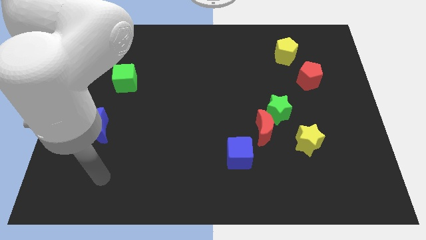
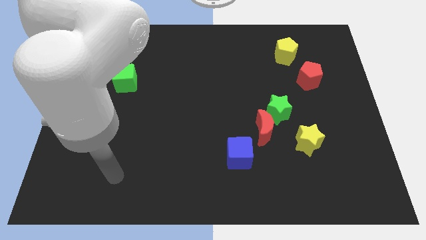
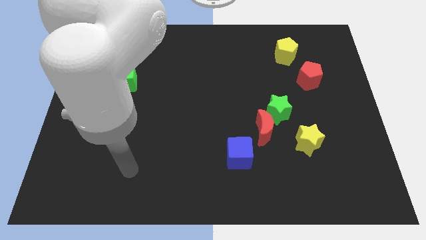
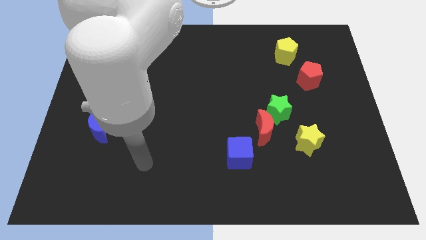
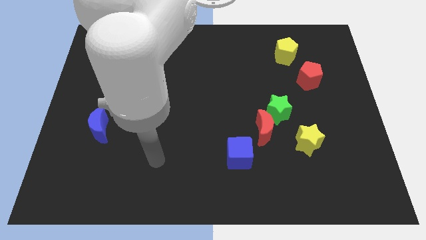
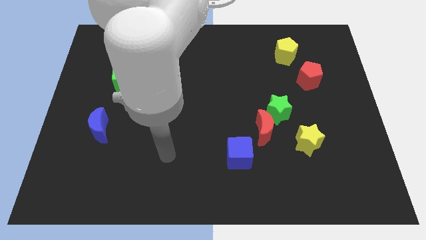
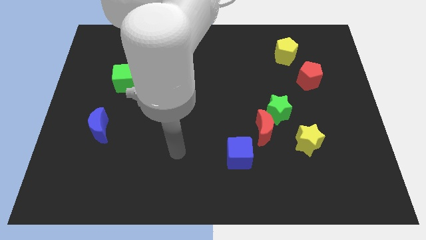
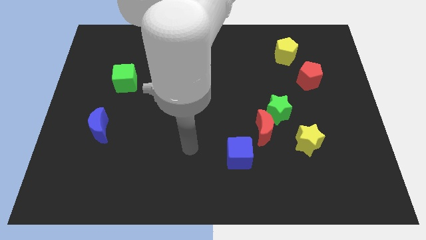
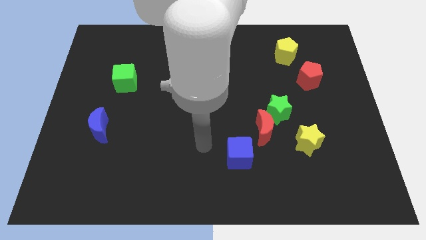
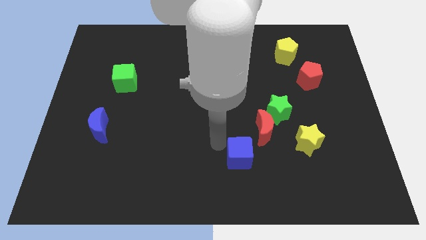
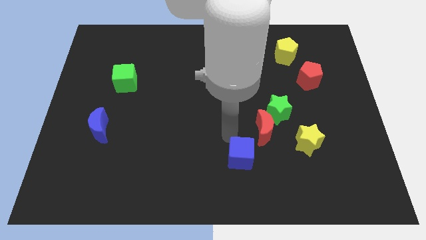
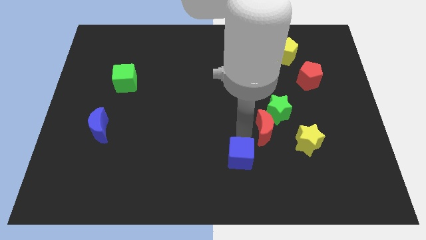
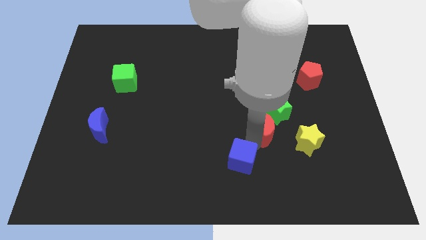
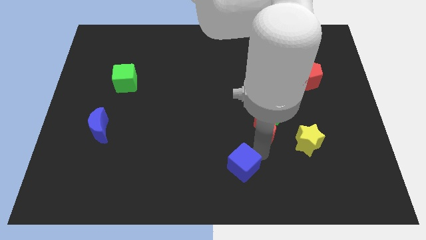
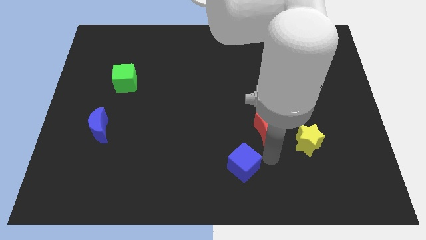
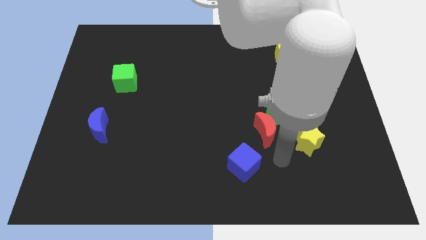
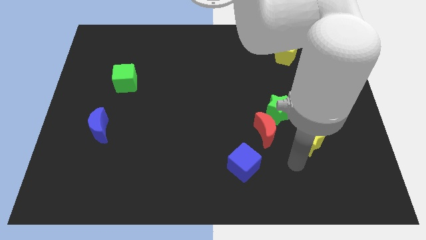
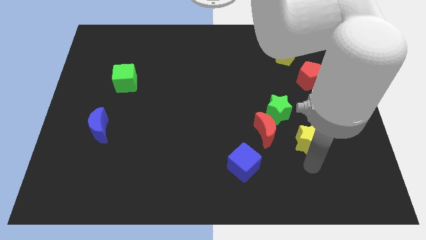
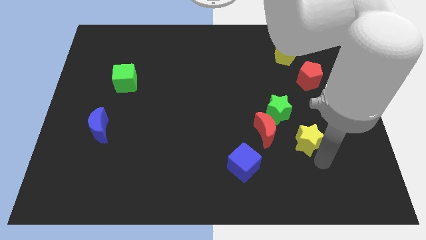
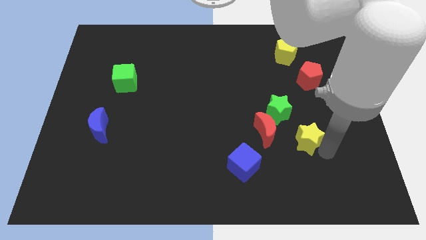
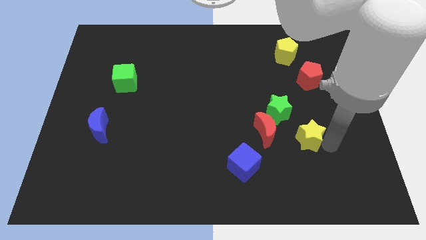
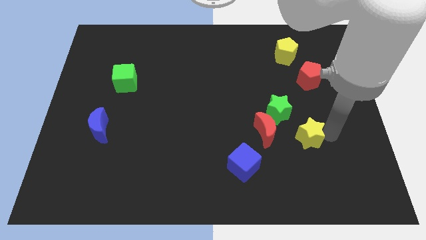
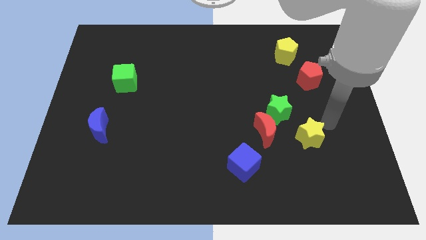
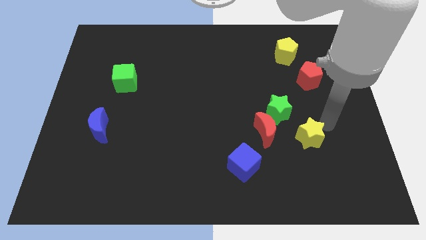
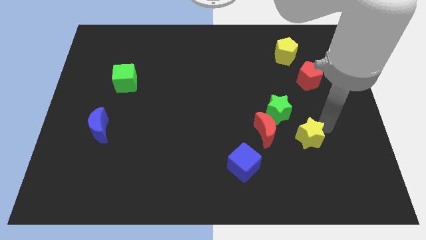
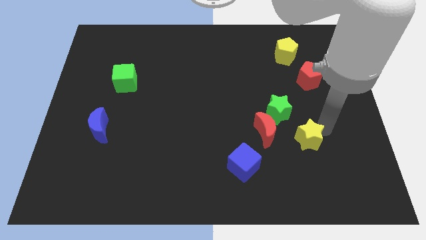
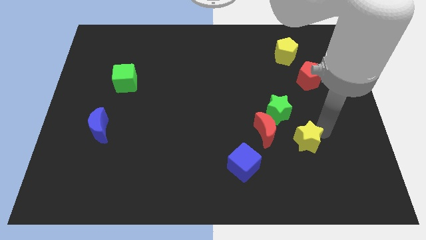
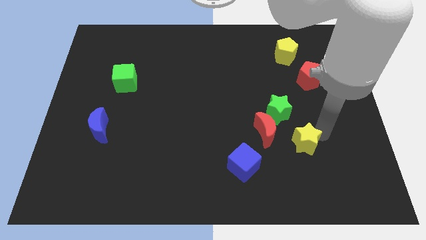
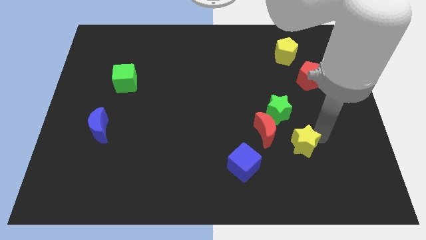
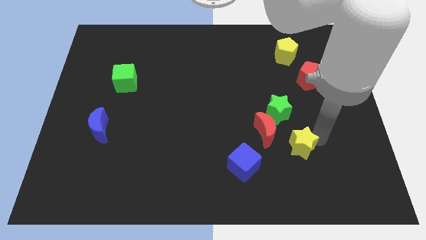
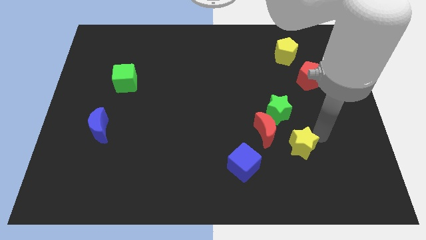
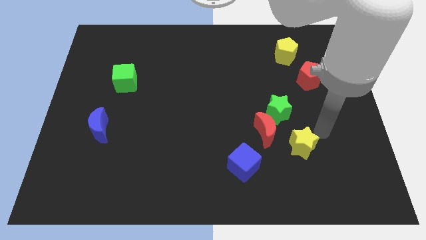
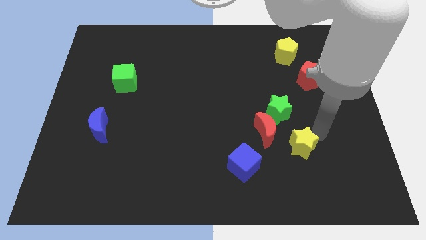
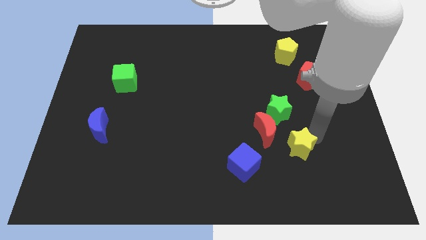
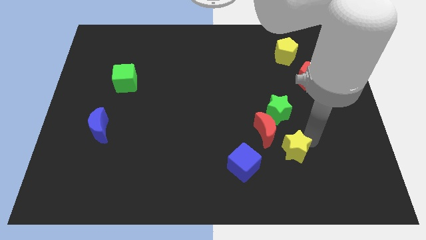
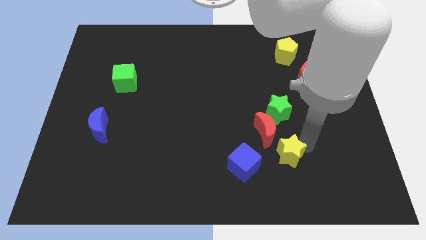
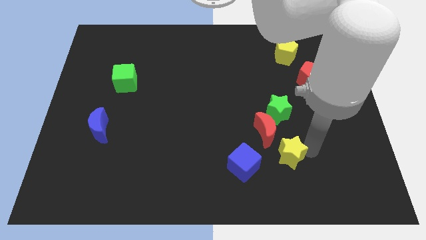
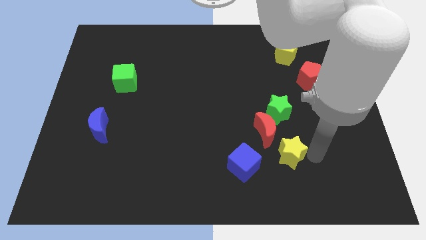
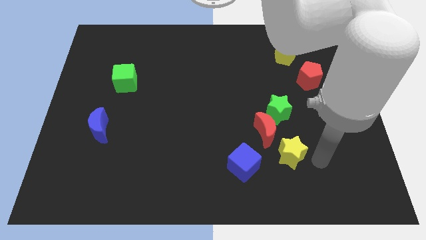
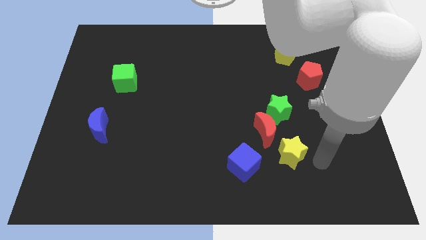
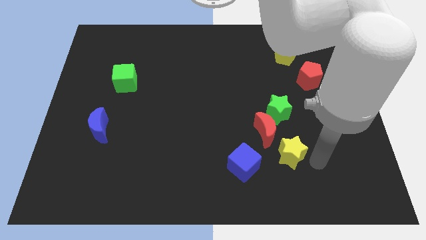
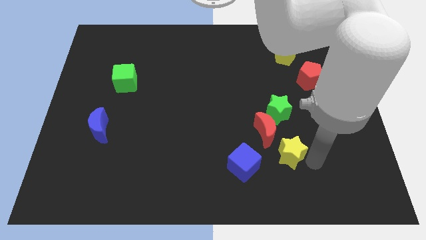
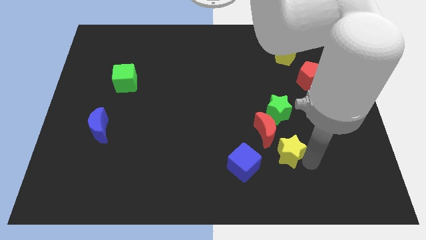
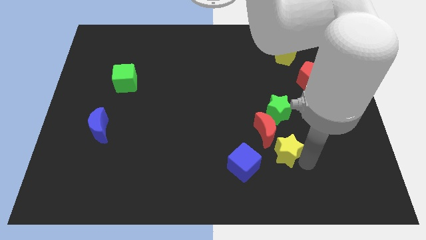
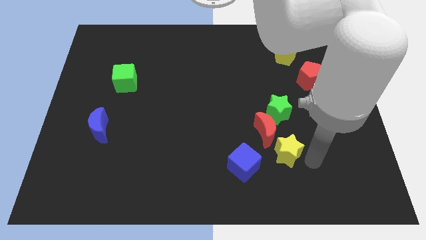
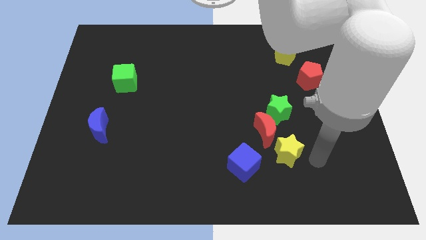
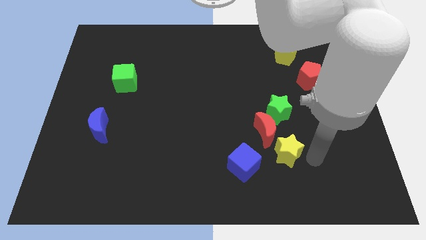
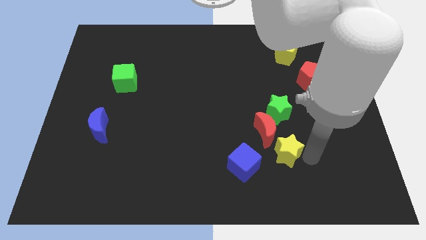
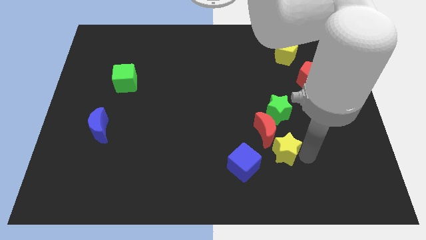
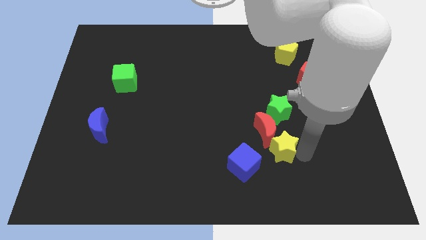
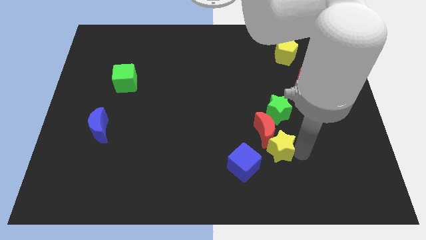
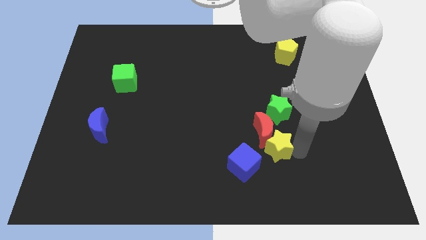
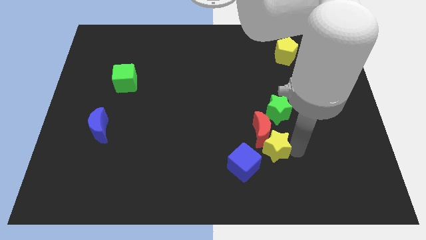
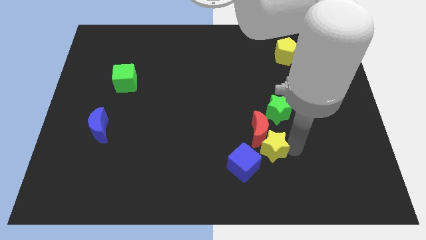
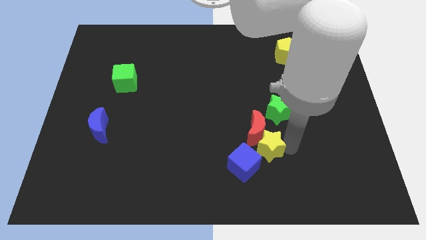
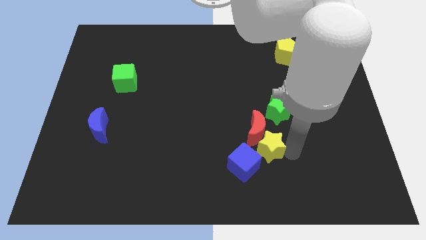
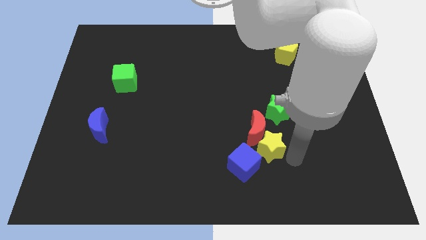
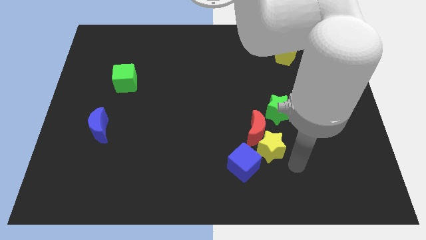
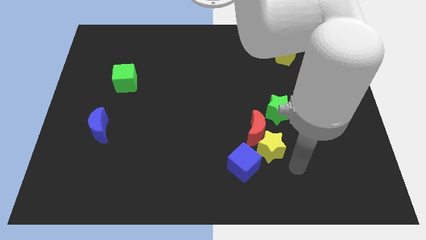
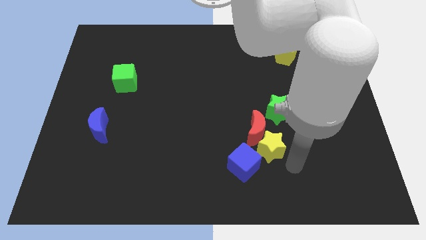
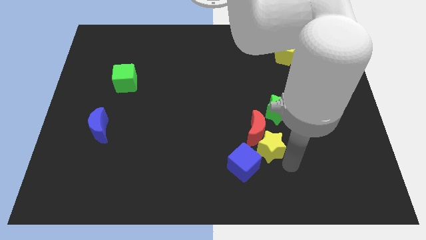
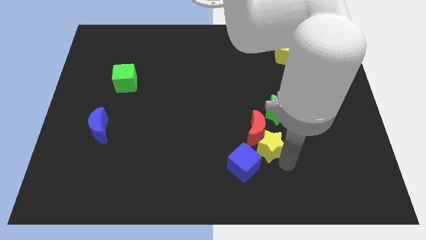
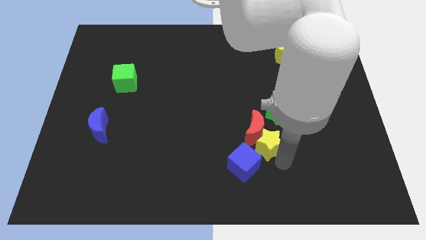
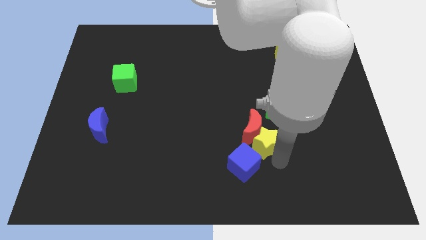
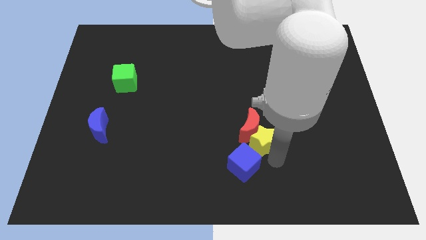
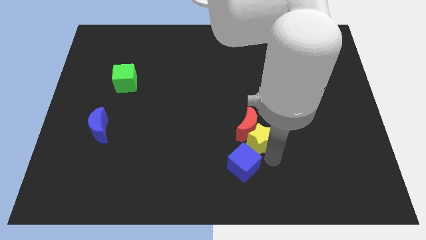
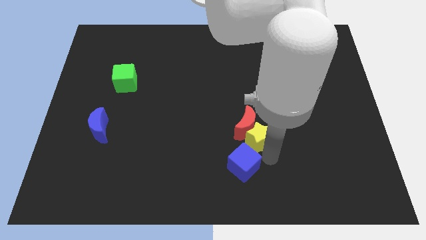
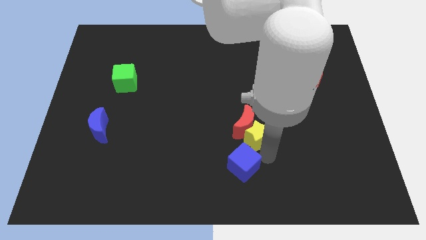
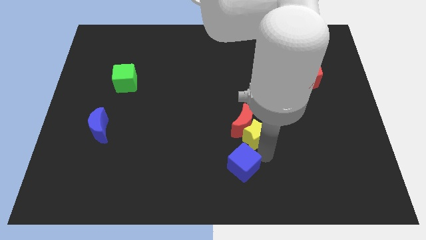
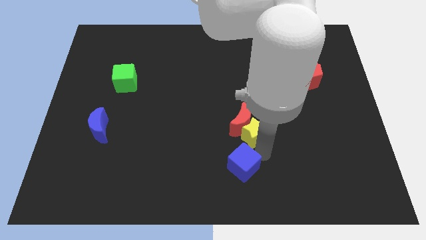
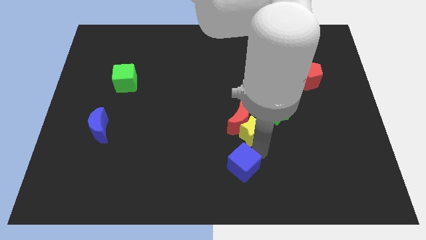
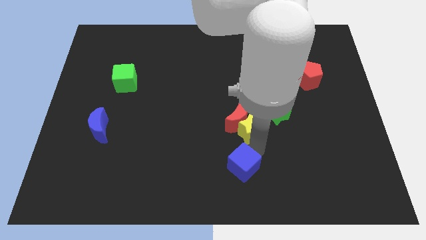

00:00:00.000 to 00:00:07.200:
put the yellow star to the middle

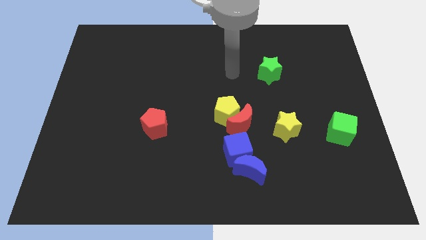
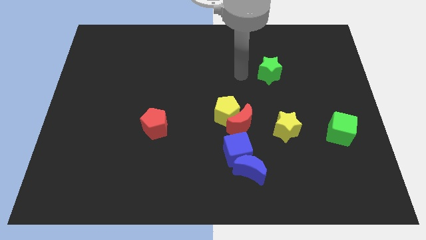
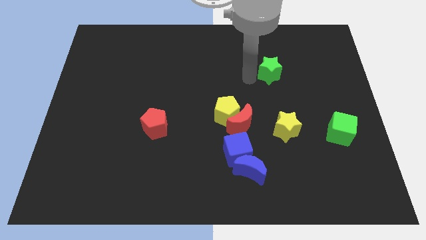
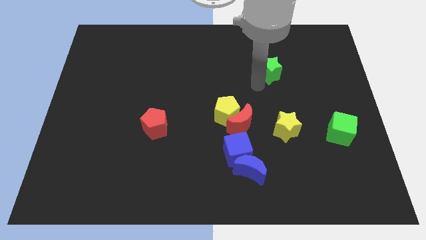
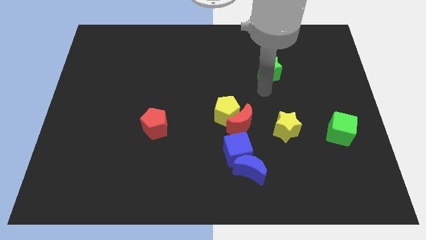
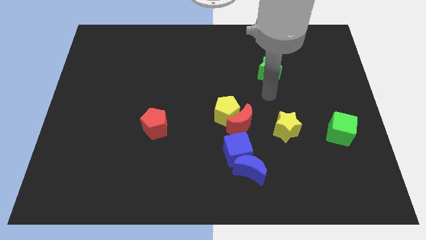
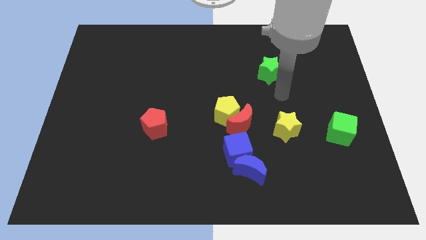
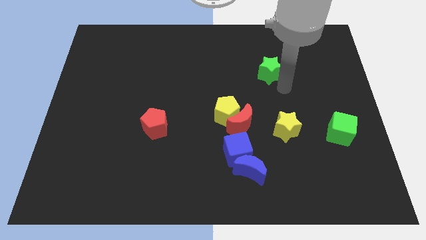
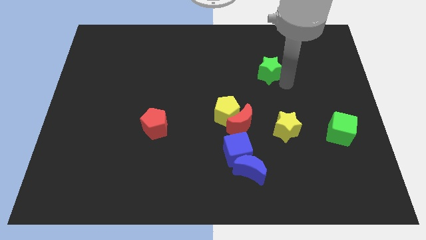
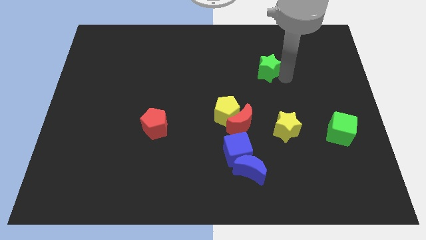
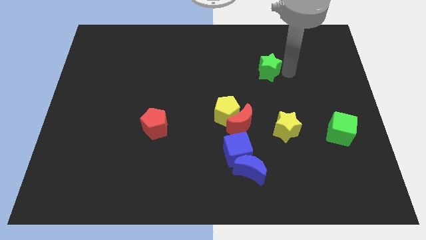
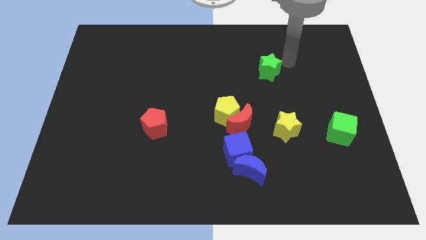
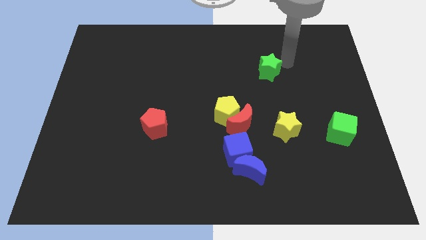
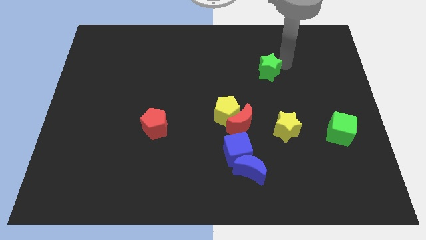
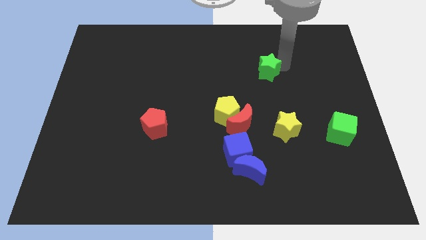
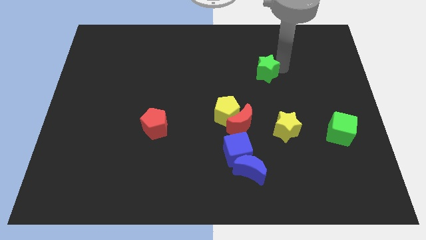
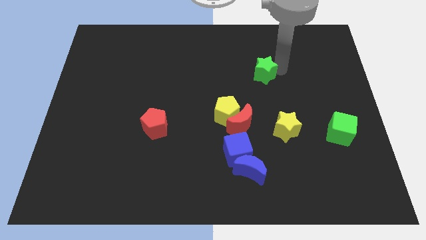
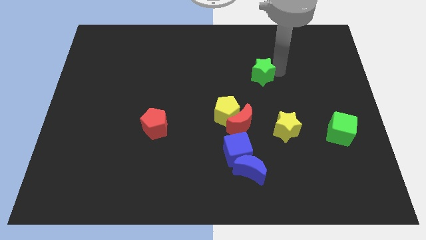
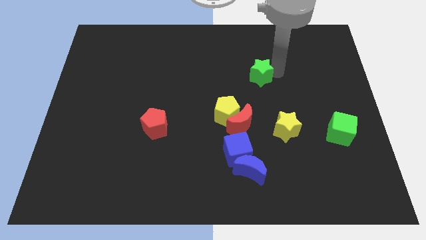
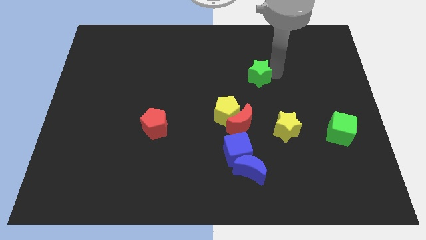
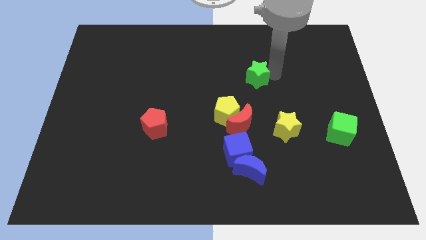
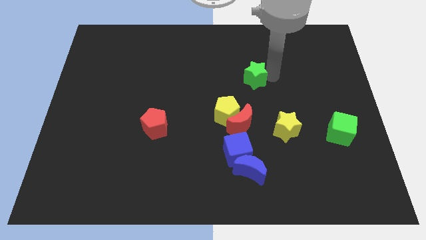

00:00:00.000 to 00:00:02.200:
move the green star to the center of the board
